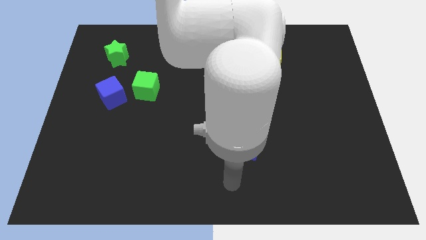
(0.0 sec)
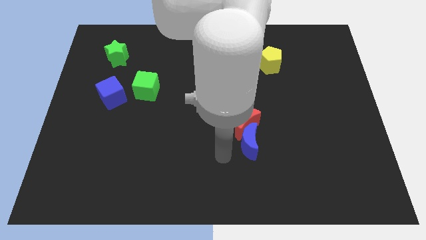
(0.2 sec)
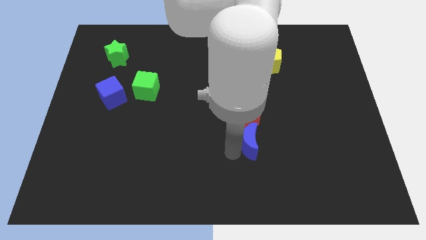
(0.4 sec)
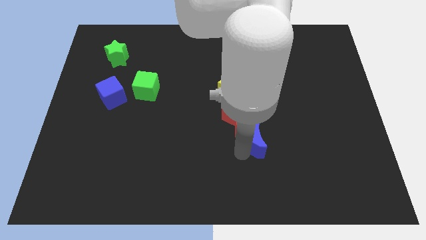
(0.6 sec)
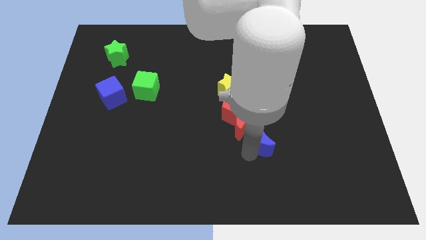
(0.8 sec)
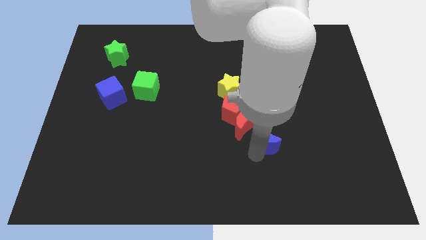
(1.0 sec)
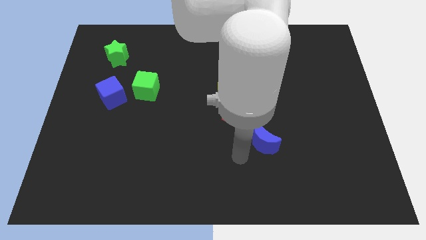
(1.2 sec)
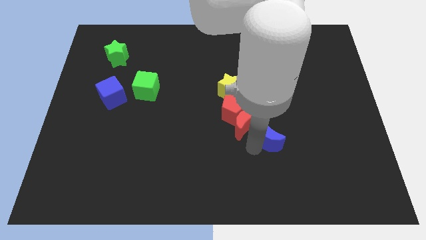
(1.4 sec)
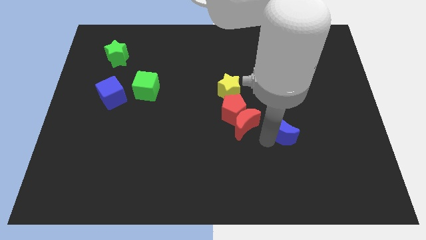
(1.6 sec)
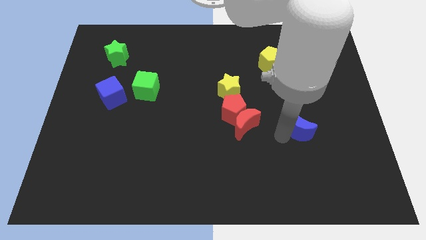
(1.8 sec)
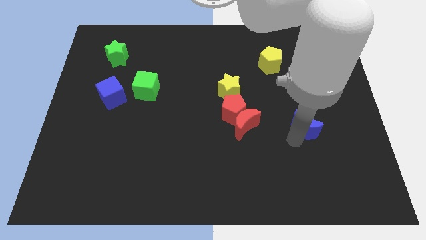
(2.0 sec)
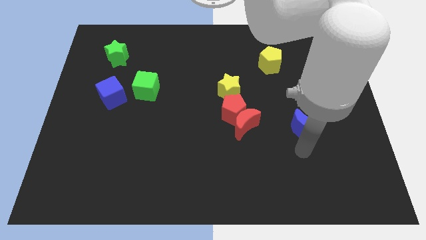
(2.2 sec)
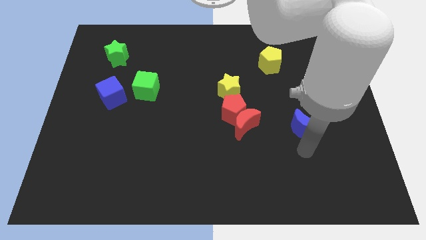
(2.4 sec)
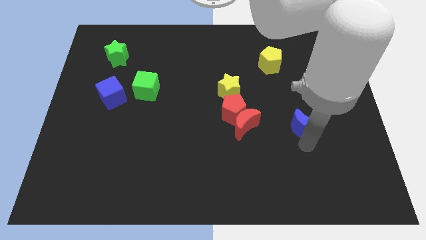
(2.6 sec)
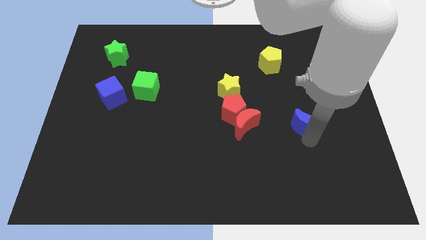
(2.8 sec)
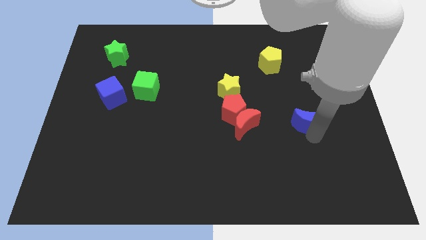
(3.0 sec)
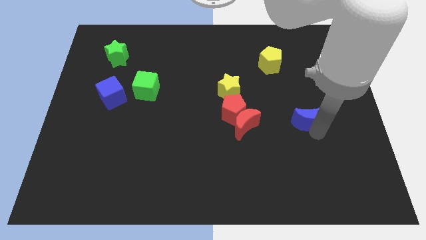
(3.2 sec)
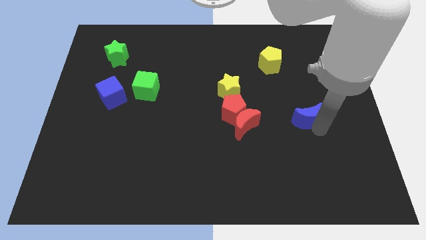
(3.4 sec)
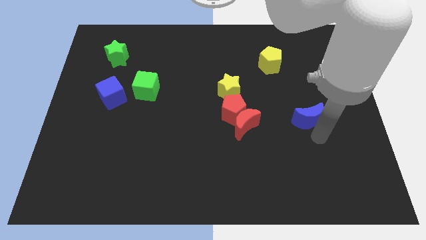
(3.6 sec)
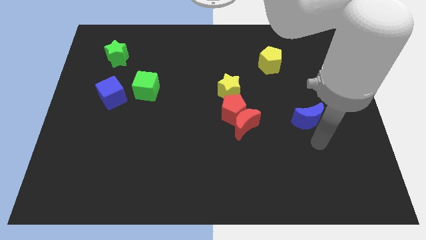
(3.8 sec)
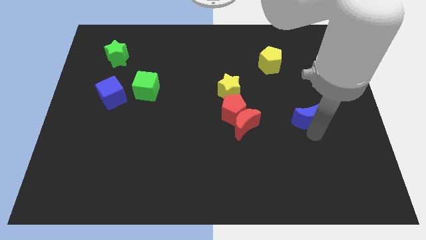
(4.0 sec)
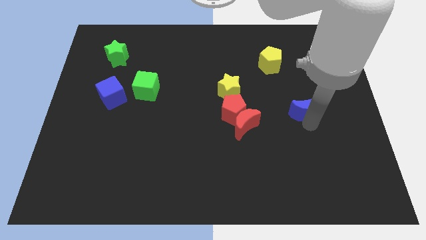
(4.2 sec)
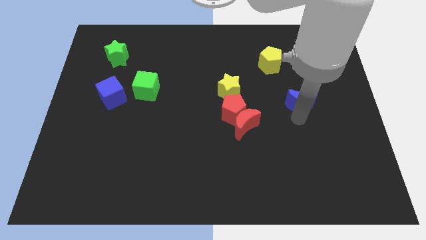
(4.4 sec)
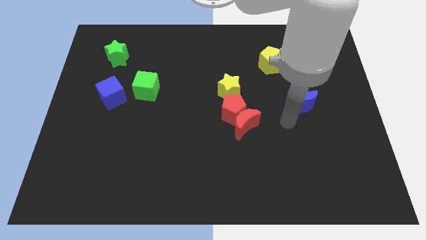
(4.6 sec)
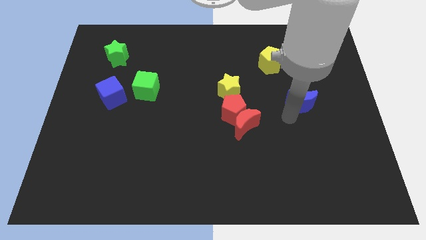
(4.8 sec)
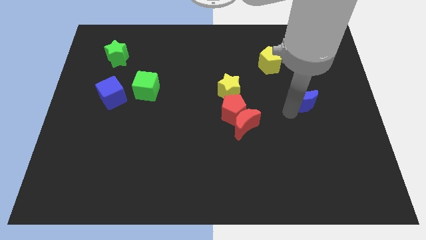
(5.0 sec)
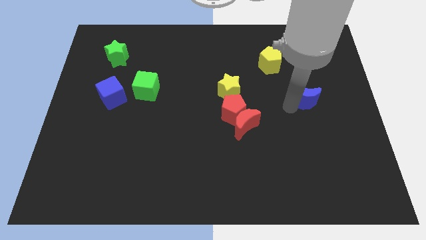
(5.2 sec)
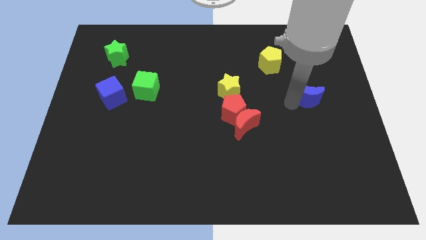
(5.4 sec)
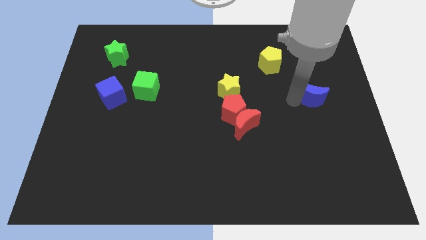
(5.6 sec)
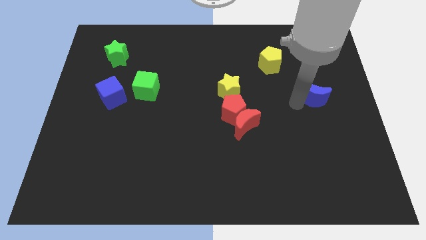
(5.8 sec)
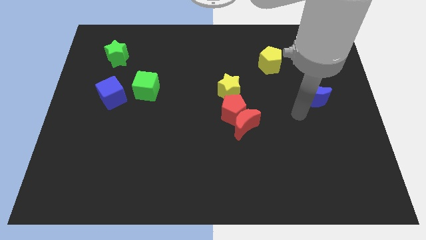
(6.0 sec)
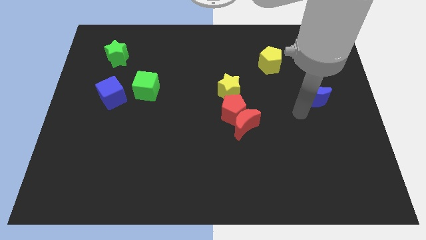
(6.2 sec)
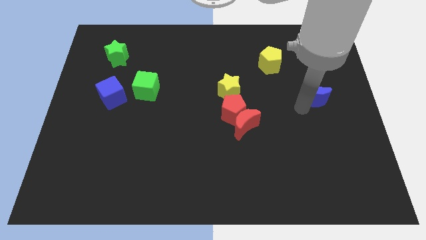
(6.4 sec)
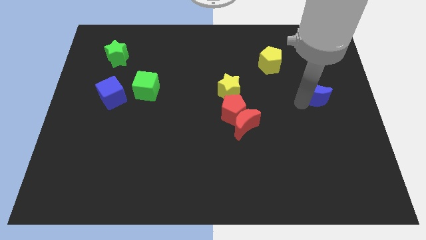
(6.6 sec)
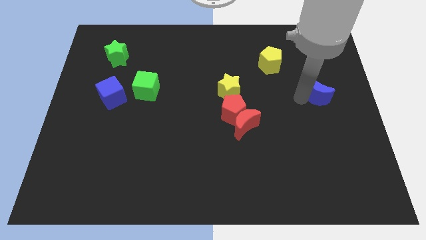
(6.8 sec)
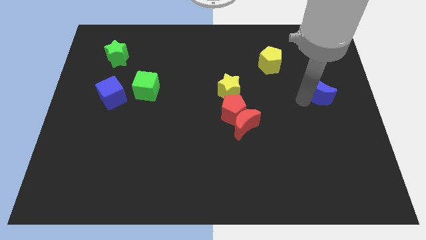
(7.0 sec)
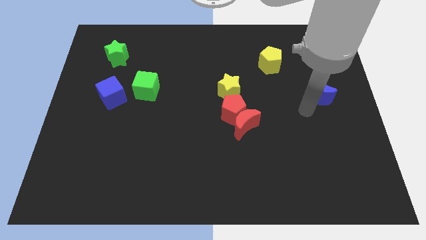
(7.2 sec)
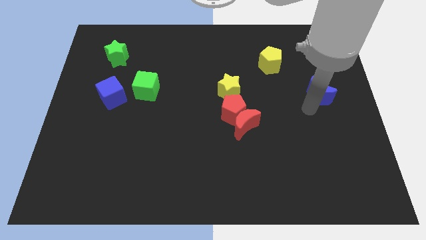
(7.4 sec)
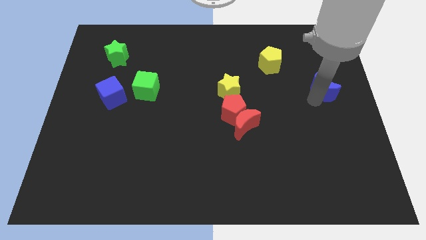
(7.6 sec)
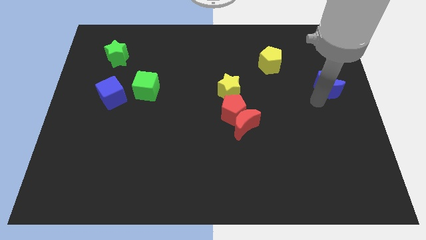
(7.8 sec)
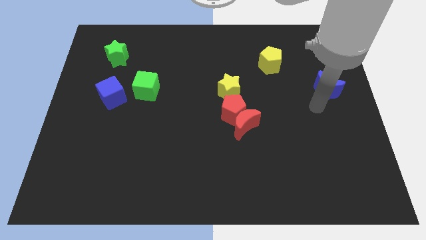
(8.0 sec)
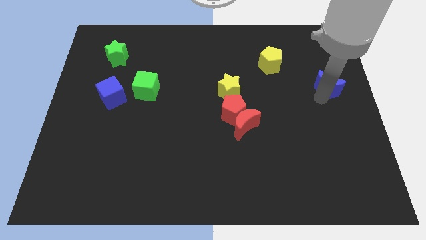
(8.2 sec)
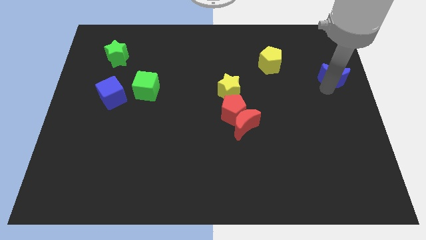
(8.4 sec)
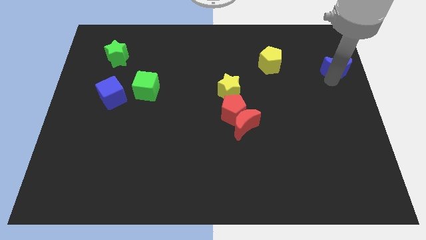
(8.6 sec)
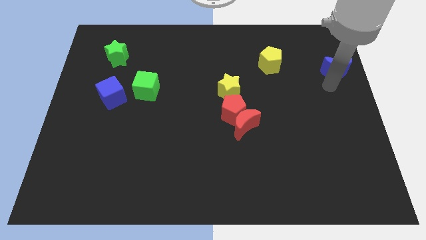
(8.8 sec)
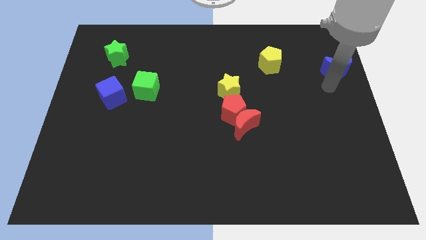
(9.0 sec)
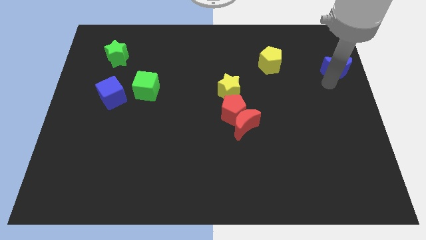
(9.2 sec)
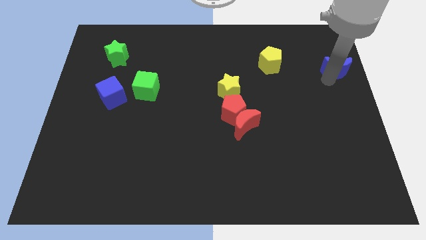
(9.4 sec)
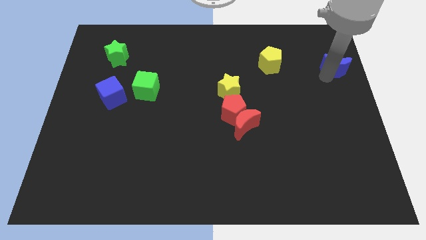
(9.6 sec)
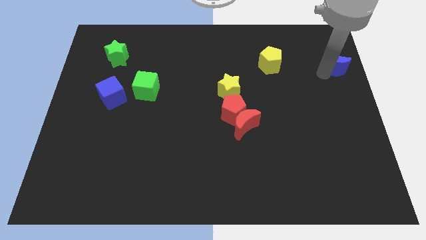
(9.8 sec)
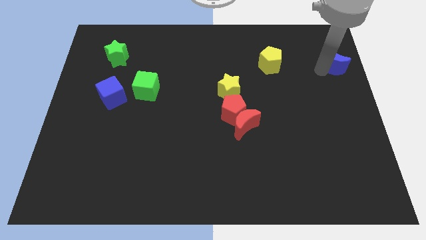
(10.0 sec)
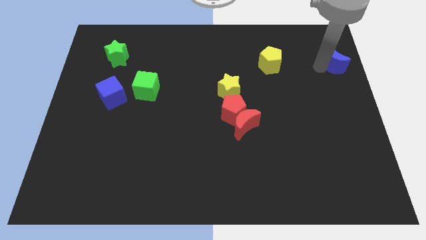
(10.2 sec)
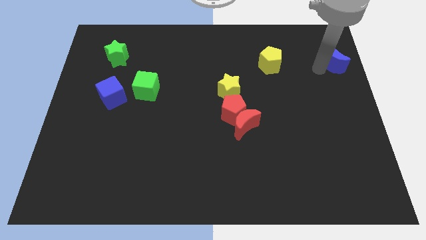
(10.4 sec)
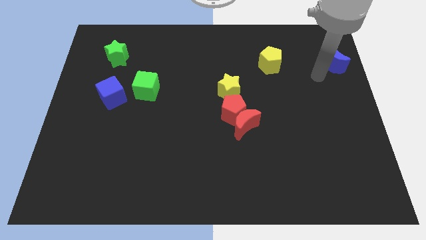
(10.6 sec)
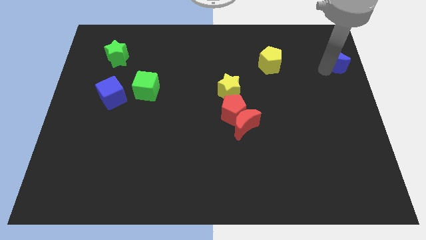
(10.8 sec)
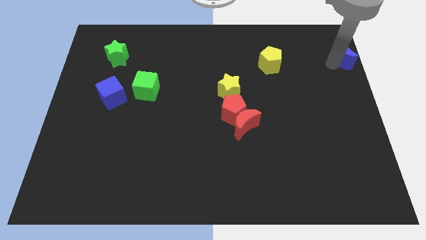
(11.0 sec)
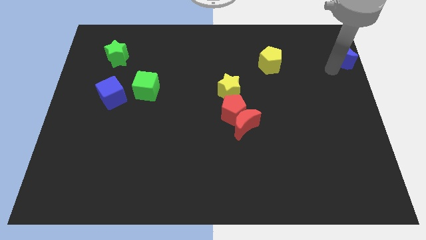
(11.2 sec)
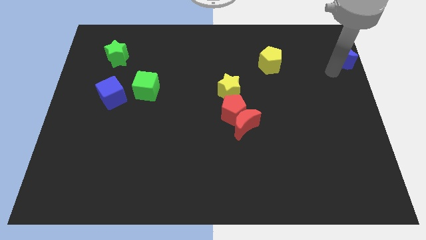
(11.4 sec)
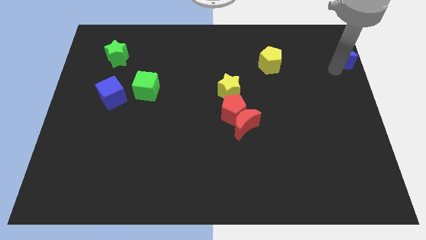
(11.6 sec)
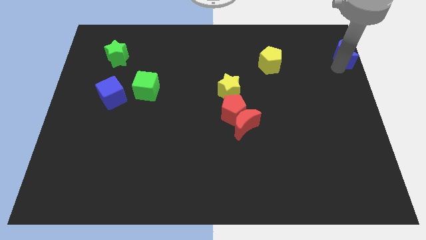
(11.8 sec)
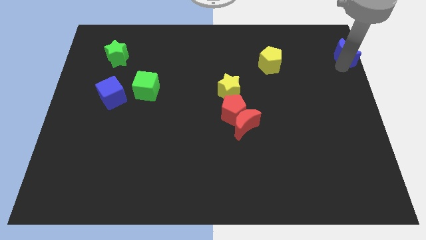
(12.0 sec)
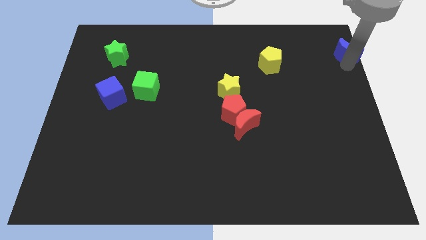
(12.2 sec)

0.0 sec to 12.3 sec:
slide the blue moon to the top right corner
